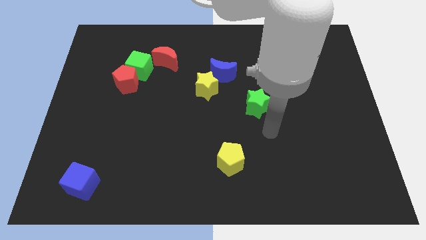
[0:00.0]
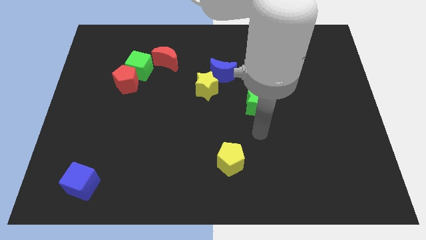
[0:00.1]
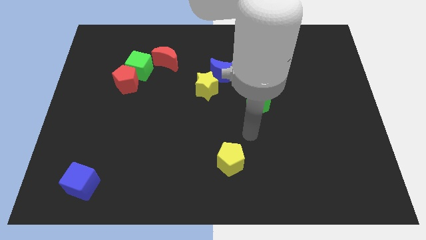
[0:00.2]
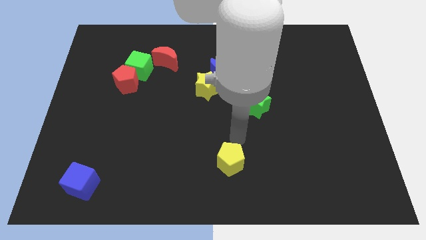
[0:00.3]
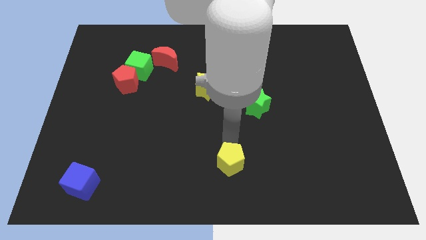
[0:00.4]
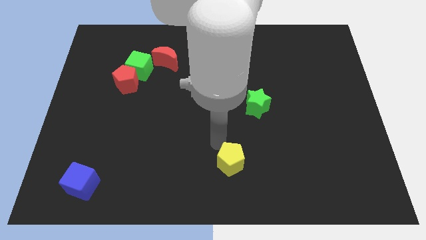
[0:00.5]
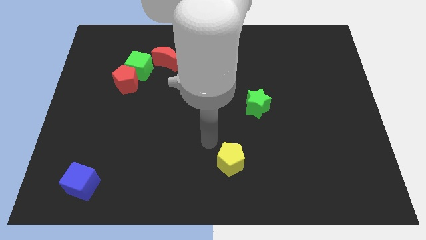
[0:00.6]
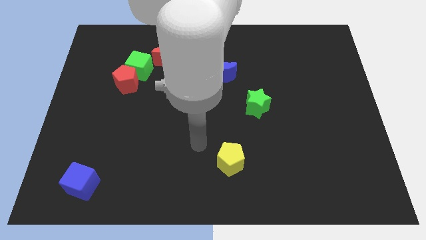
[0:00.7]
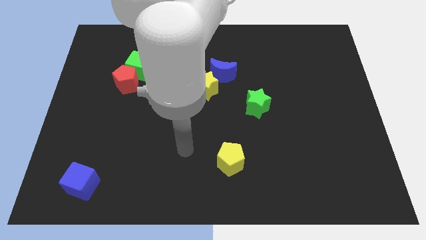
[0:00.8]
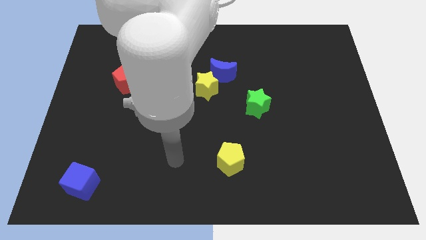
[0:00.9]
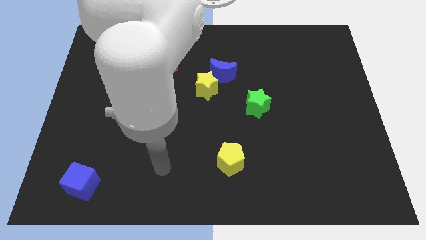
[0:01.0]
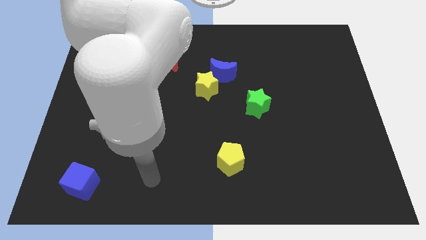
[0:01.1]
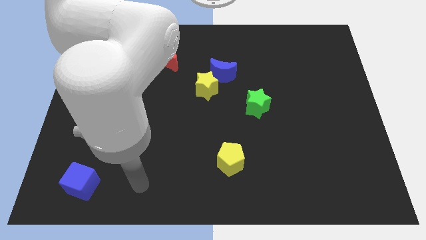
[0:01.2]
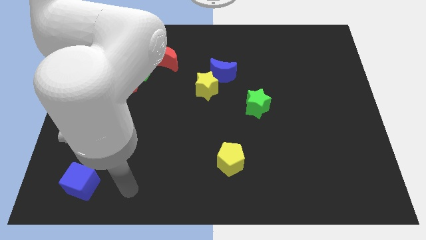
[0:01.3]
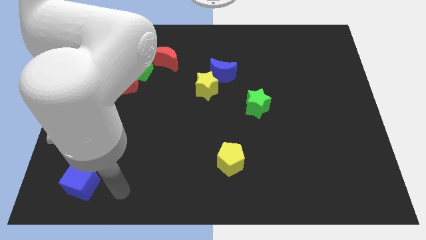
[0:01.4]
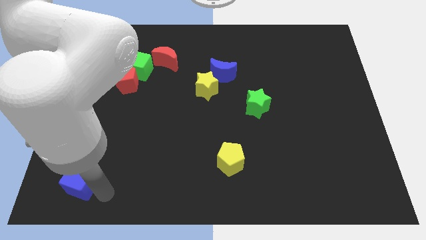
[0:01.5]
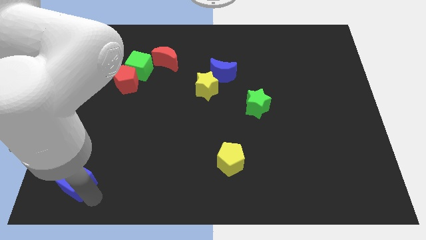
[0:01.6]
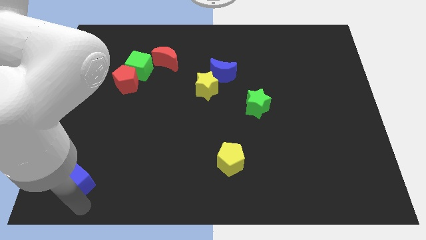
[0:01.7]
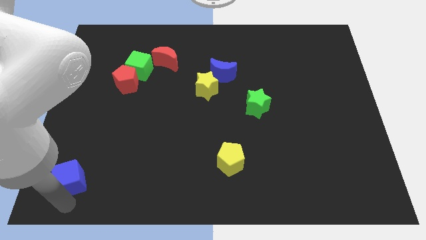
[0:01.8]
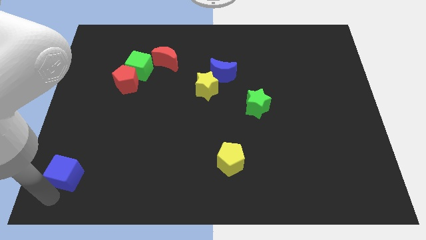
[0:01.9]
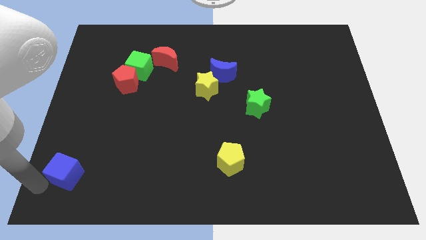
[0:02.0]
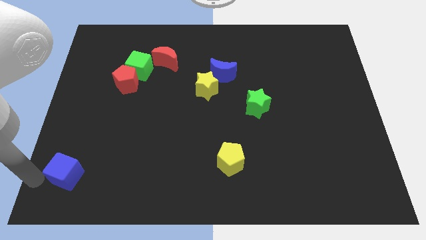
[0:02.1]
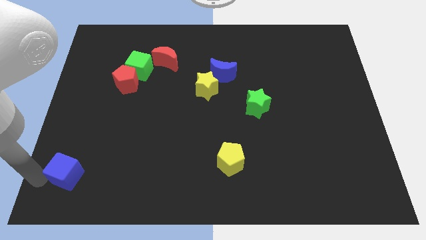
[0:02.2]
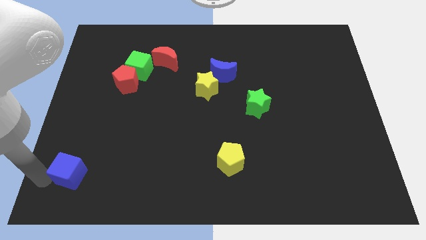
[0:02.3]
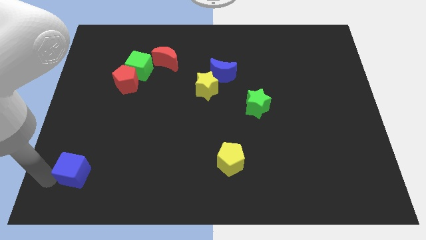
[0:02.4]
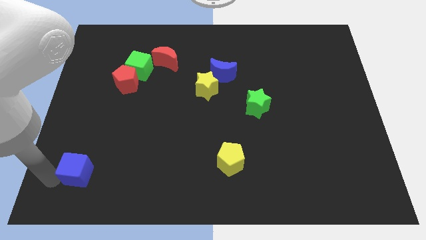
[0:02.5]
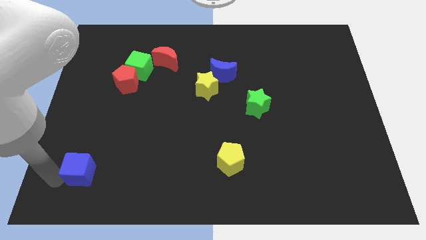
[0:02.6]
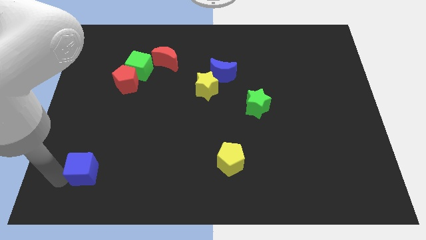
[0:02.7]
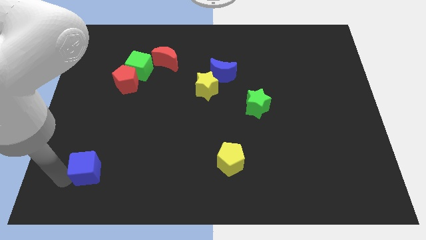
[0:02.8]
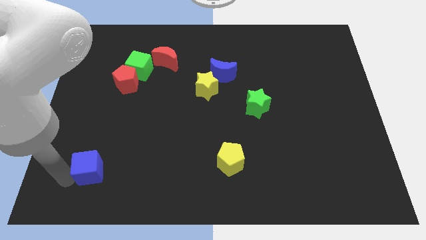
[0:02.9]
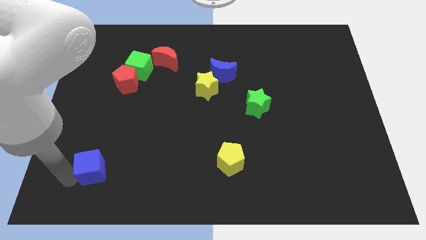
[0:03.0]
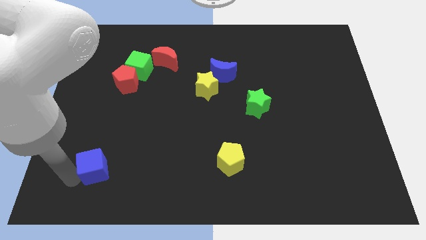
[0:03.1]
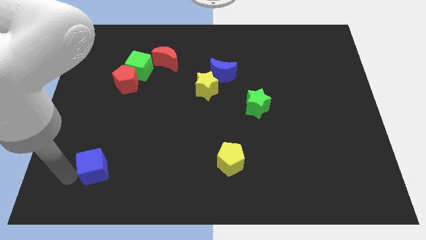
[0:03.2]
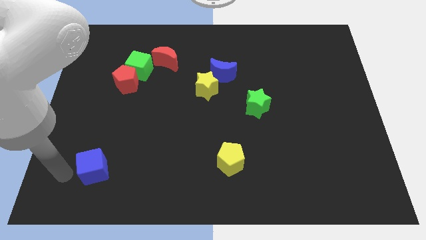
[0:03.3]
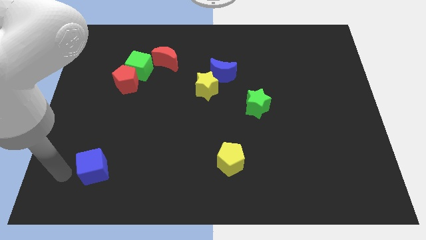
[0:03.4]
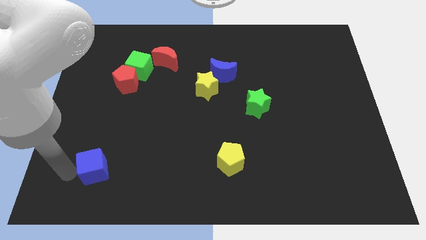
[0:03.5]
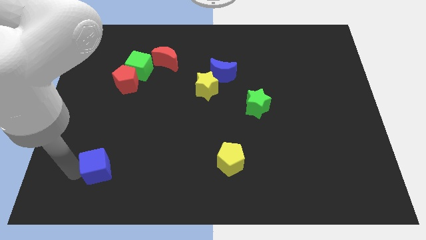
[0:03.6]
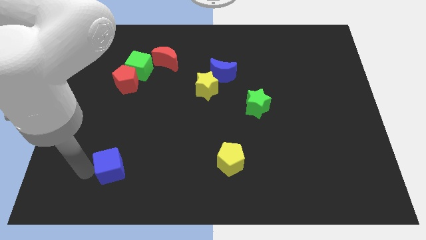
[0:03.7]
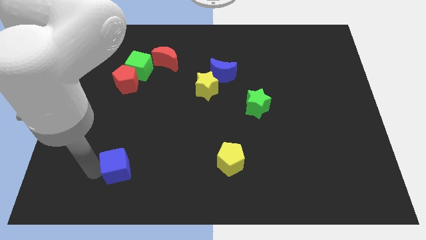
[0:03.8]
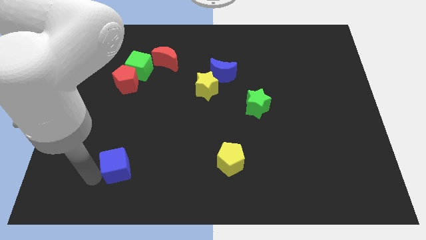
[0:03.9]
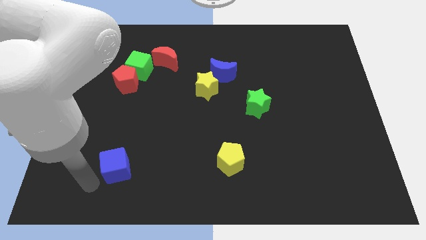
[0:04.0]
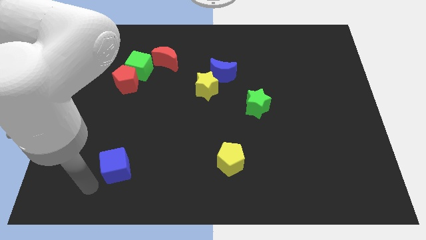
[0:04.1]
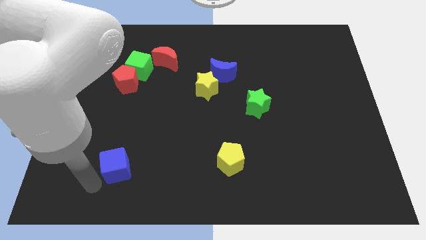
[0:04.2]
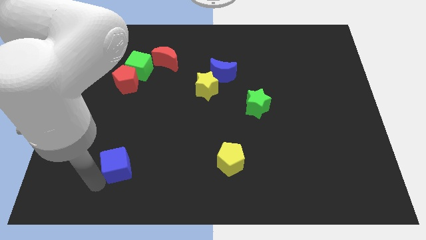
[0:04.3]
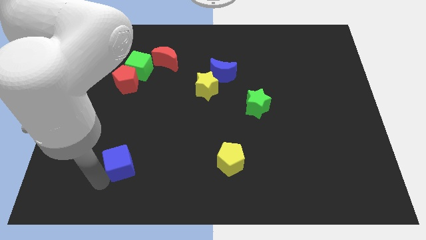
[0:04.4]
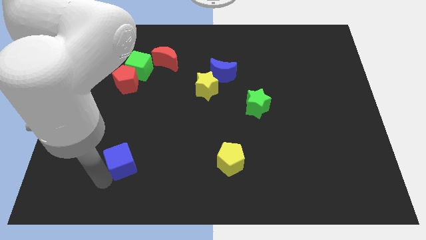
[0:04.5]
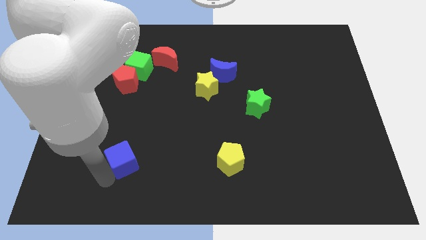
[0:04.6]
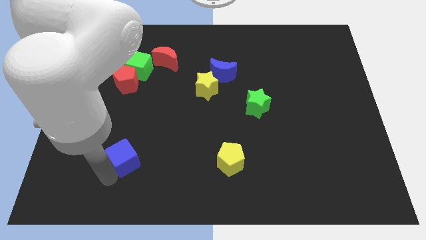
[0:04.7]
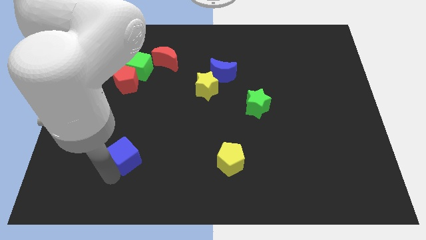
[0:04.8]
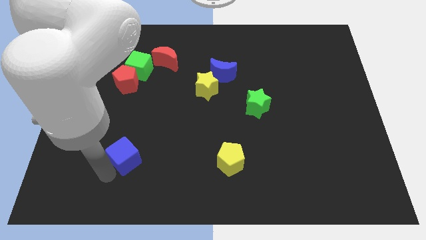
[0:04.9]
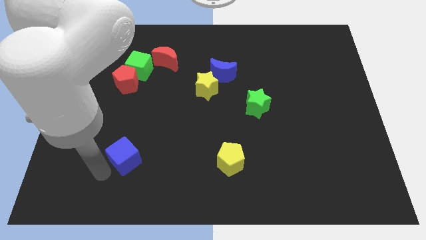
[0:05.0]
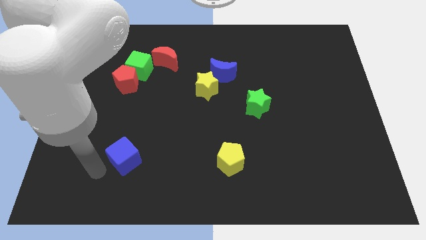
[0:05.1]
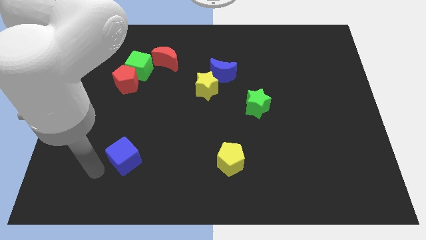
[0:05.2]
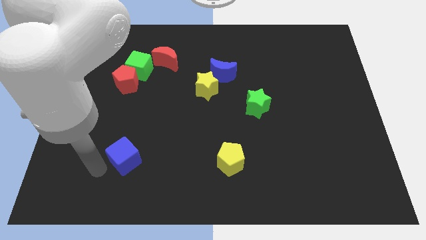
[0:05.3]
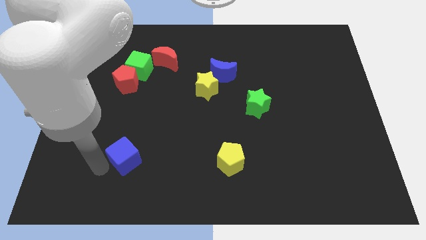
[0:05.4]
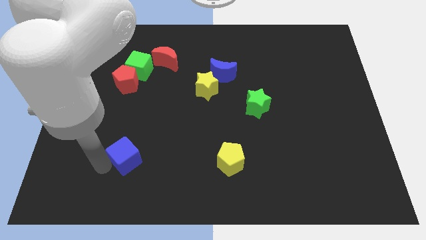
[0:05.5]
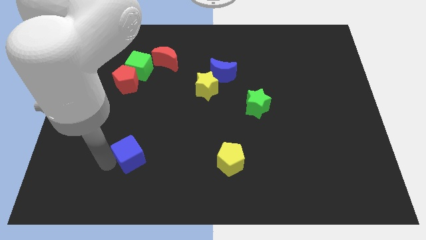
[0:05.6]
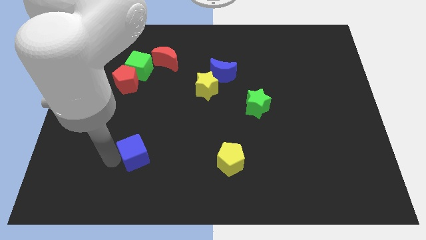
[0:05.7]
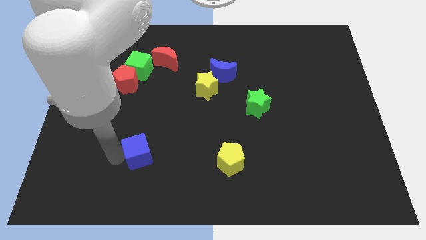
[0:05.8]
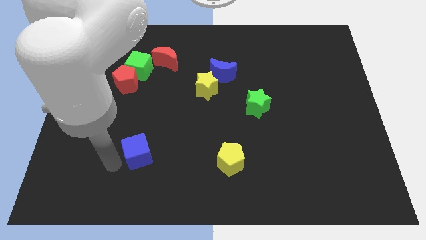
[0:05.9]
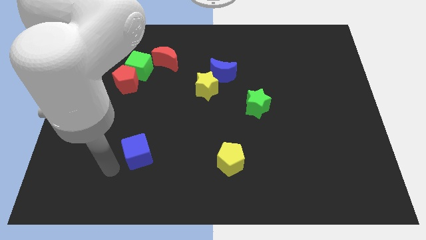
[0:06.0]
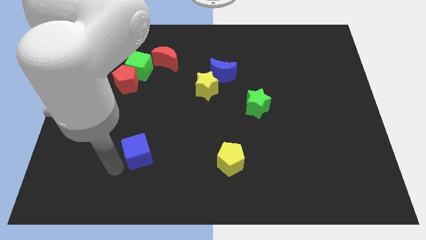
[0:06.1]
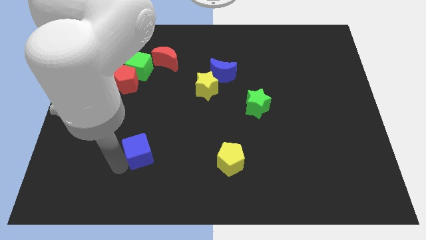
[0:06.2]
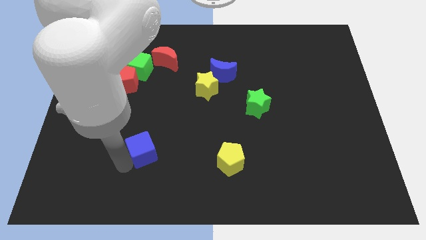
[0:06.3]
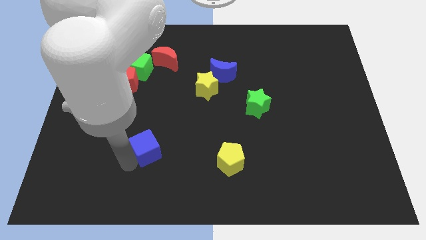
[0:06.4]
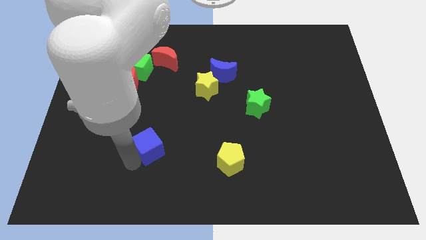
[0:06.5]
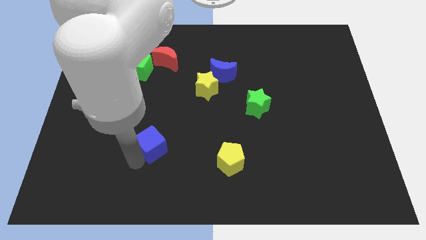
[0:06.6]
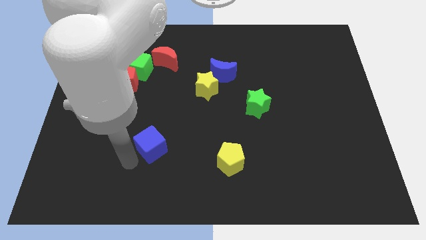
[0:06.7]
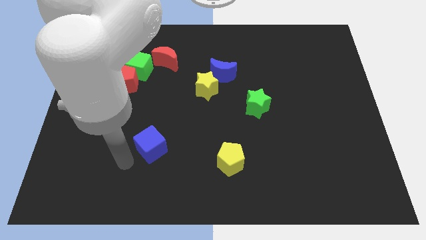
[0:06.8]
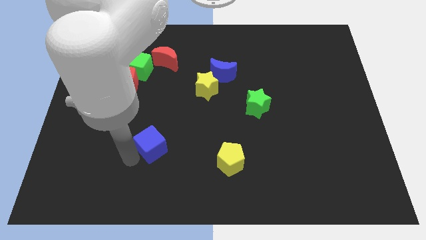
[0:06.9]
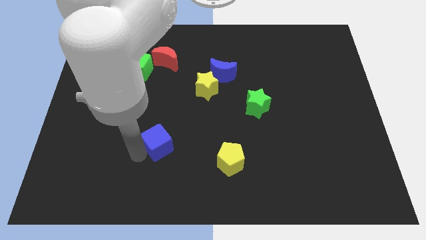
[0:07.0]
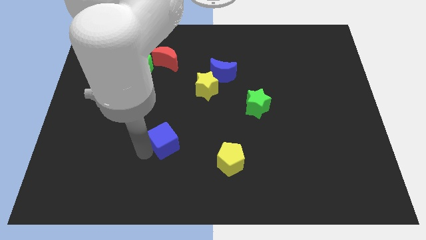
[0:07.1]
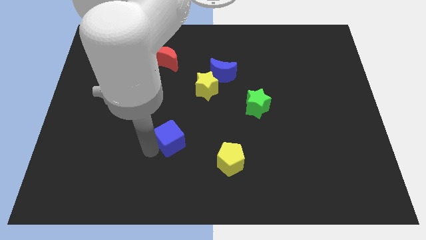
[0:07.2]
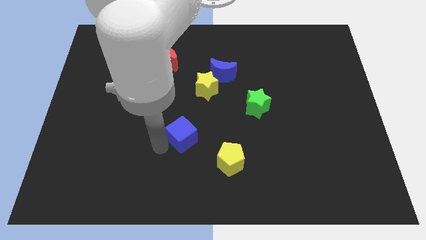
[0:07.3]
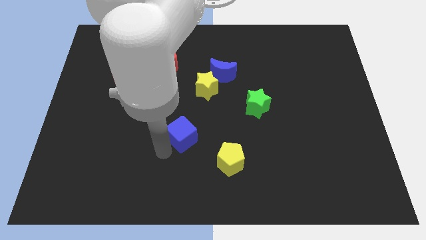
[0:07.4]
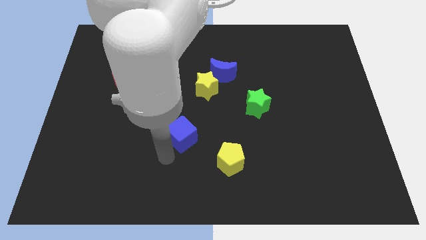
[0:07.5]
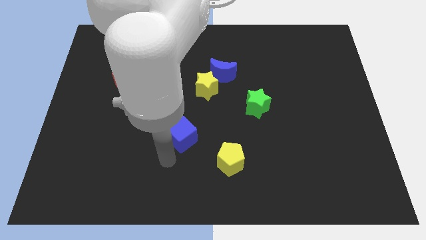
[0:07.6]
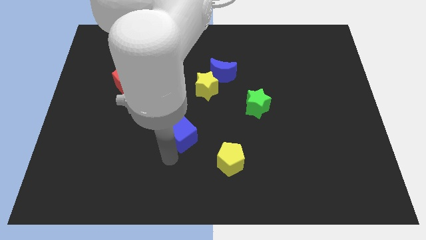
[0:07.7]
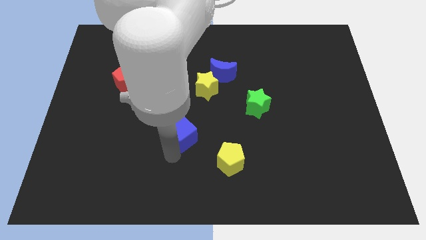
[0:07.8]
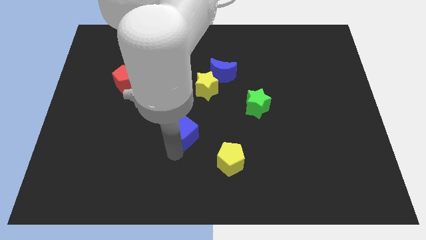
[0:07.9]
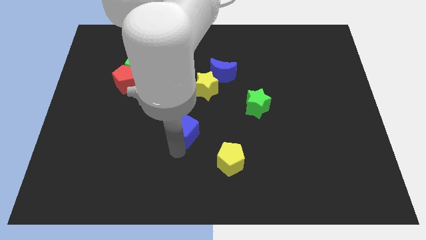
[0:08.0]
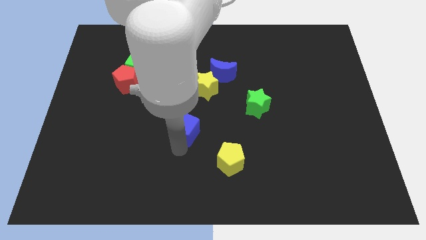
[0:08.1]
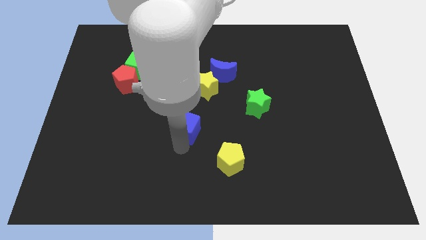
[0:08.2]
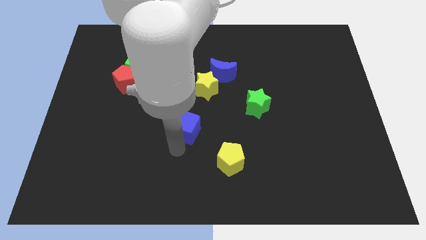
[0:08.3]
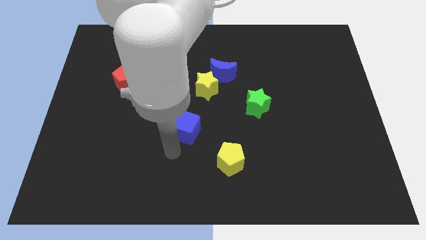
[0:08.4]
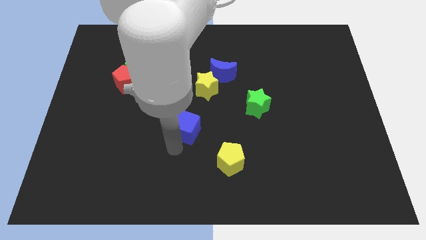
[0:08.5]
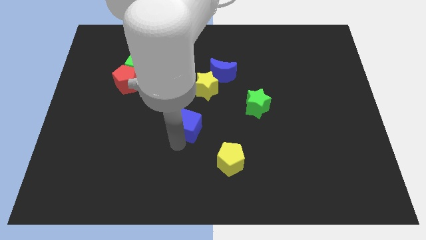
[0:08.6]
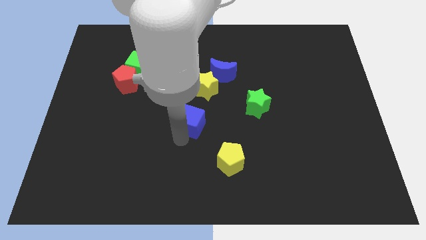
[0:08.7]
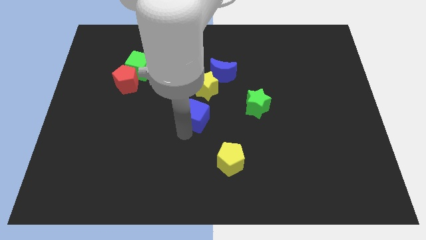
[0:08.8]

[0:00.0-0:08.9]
slide the blue cube just left of the green star
